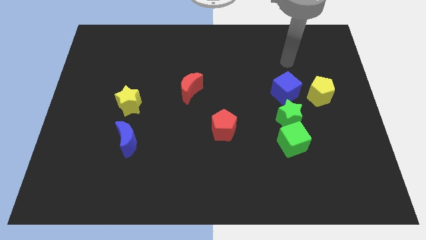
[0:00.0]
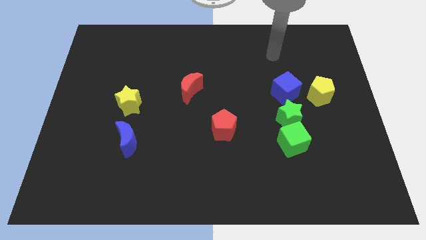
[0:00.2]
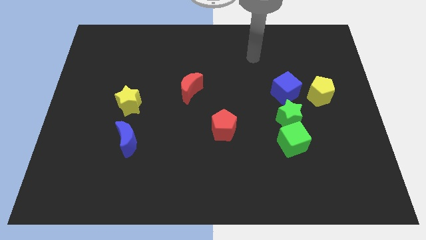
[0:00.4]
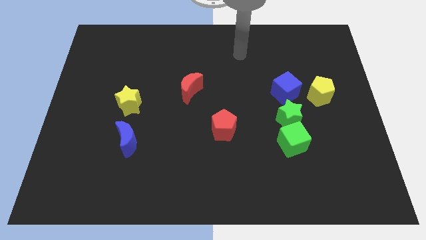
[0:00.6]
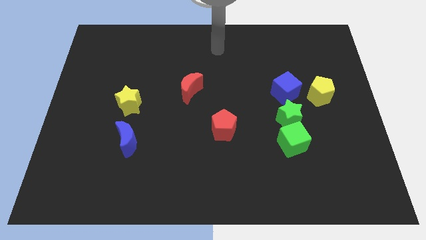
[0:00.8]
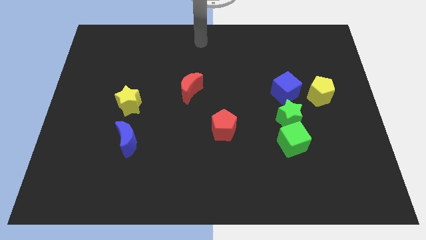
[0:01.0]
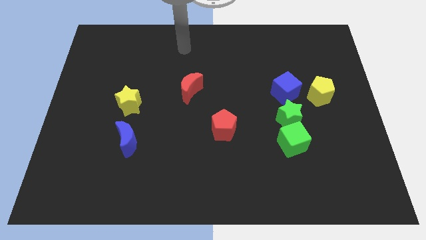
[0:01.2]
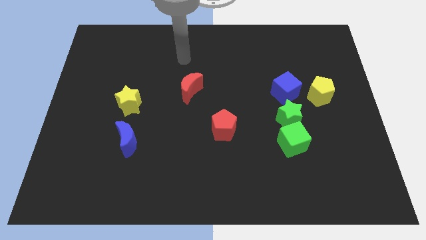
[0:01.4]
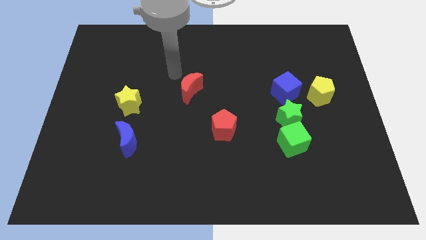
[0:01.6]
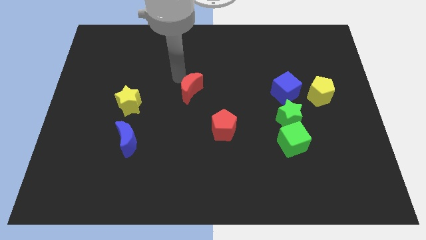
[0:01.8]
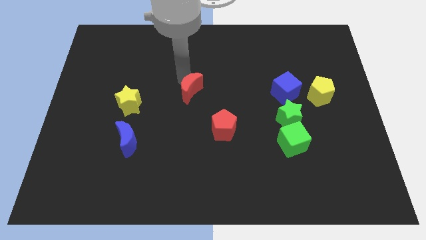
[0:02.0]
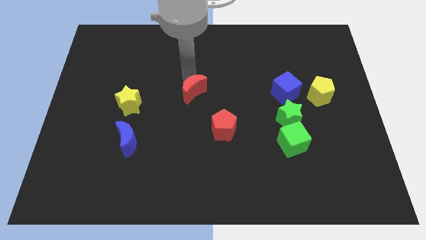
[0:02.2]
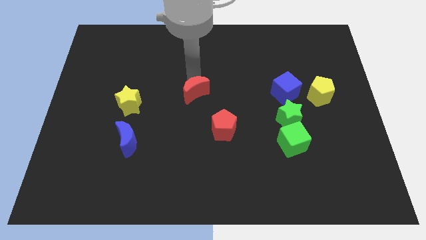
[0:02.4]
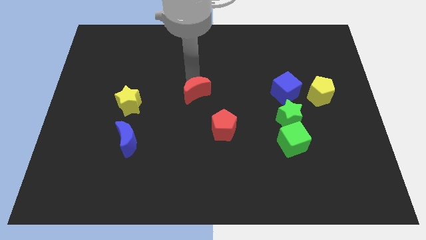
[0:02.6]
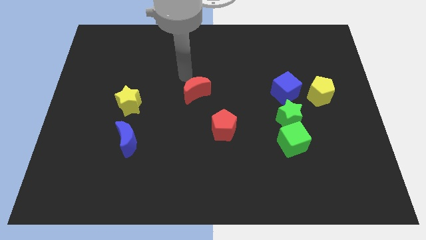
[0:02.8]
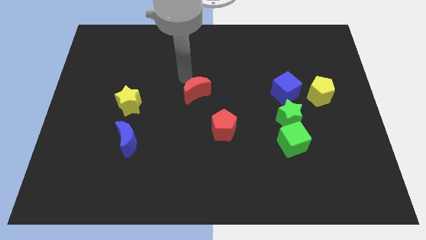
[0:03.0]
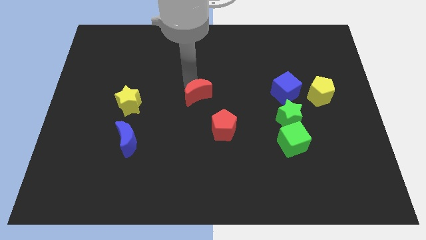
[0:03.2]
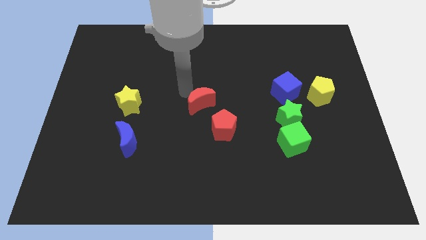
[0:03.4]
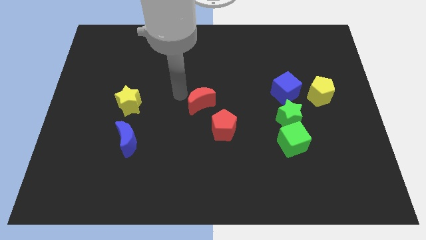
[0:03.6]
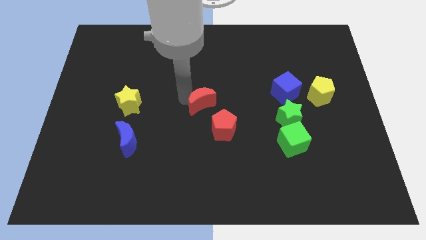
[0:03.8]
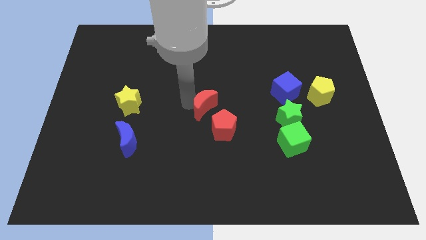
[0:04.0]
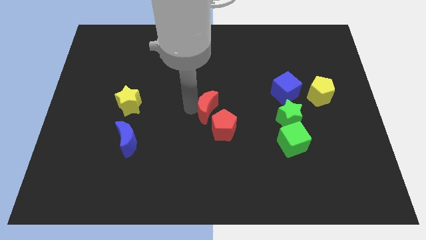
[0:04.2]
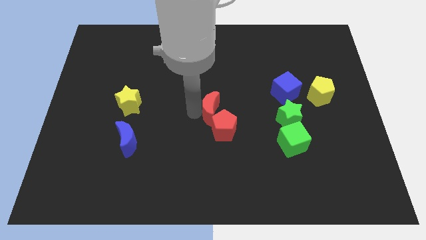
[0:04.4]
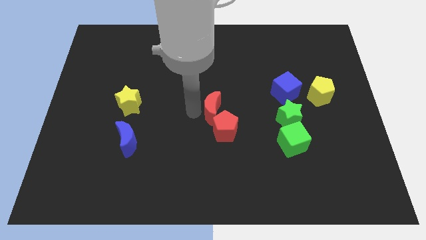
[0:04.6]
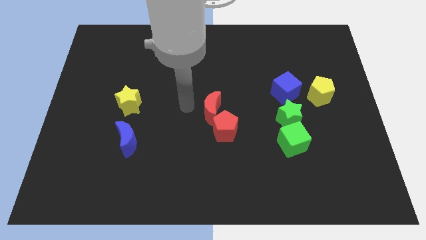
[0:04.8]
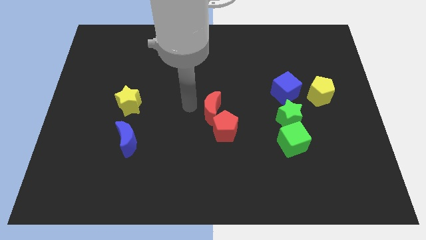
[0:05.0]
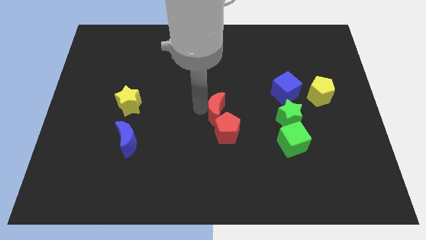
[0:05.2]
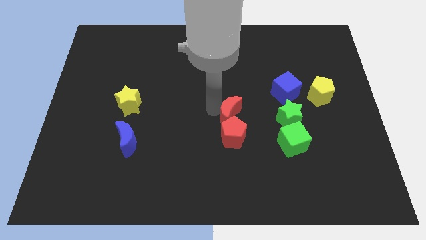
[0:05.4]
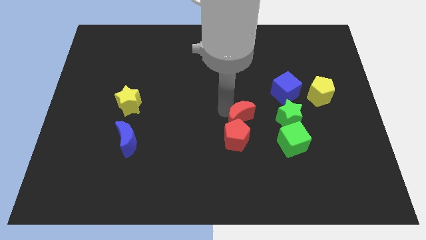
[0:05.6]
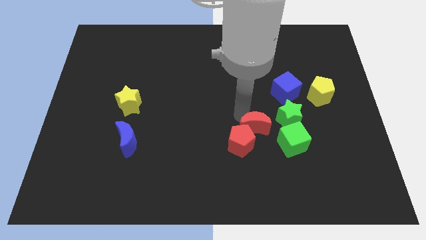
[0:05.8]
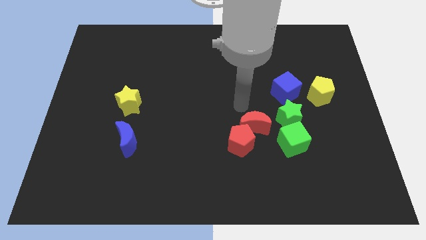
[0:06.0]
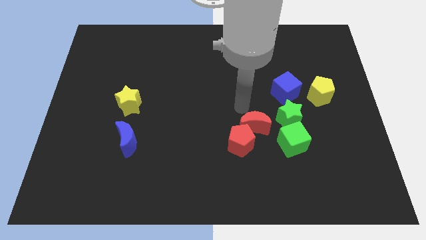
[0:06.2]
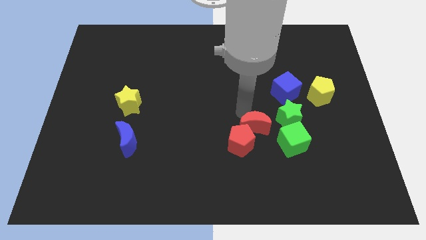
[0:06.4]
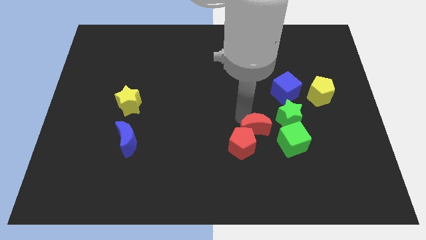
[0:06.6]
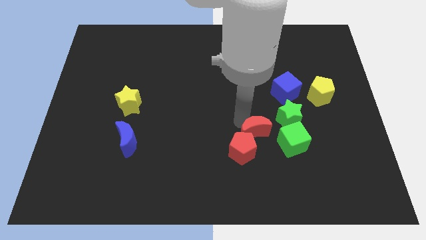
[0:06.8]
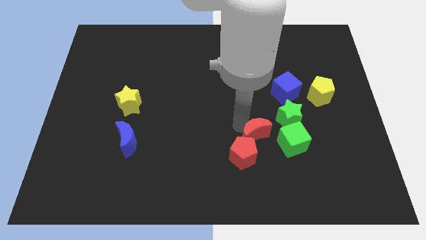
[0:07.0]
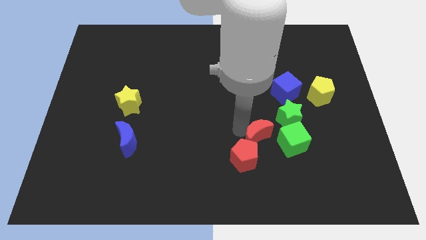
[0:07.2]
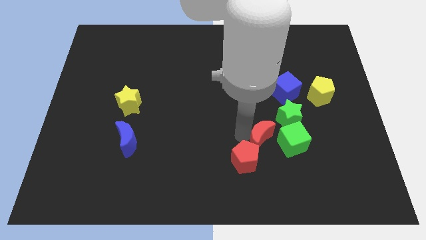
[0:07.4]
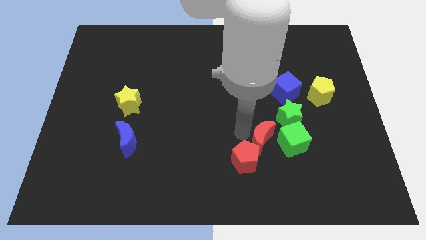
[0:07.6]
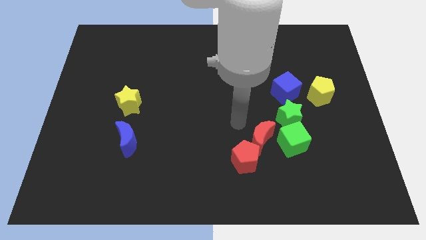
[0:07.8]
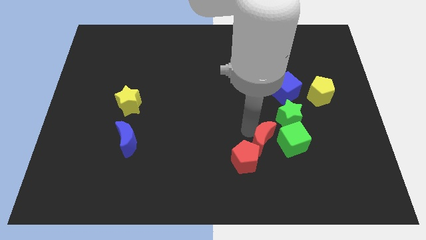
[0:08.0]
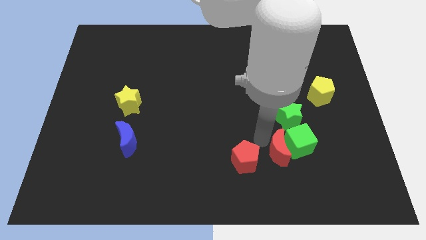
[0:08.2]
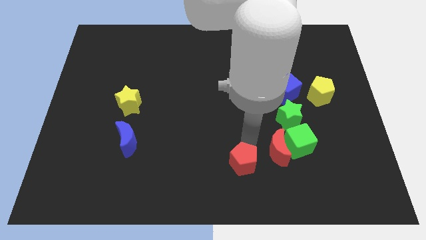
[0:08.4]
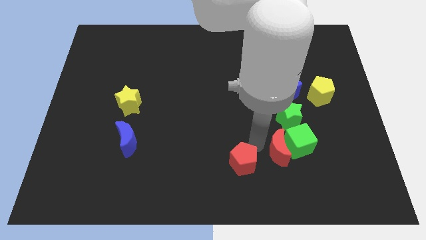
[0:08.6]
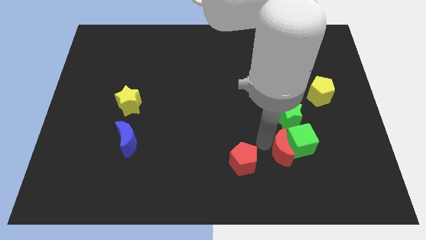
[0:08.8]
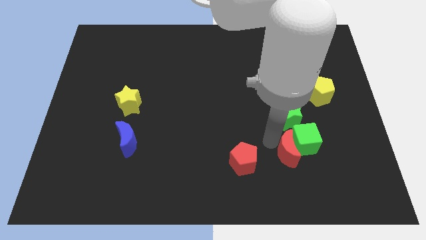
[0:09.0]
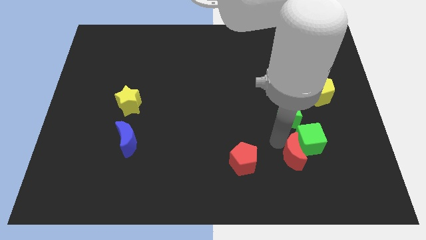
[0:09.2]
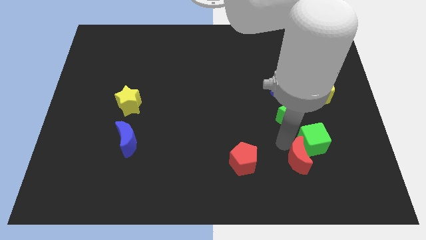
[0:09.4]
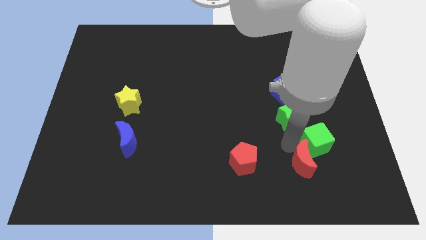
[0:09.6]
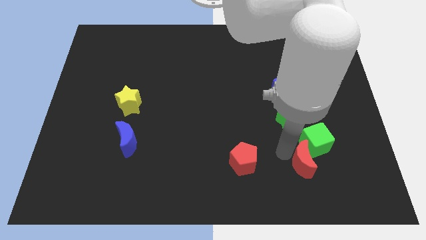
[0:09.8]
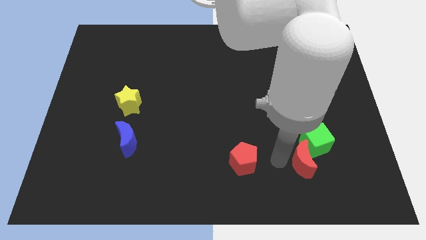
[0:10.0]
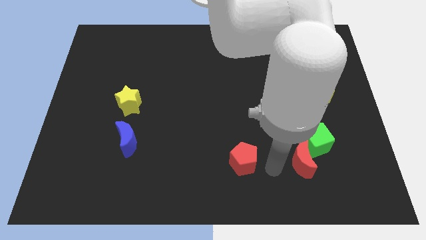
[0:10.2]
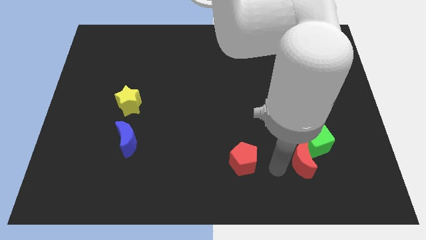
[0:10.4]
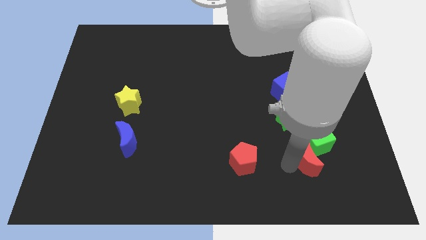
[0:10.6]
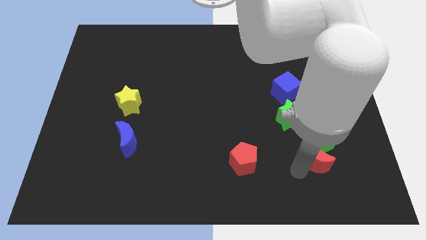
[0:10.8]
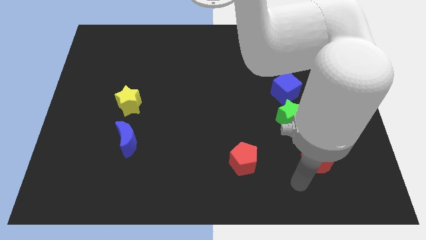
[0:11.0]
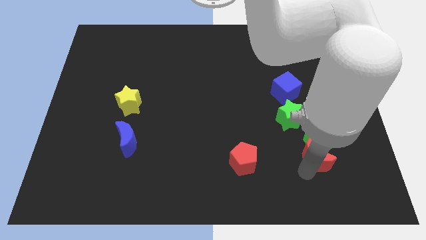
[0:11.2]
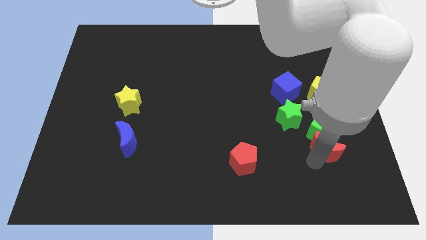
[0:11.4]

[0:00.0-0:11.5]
push the red moon below the yellow pentagon

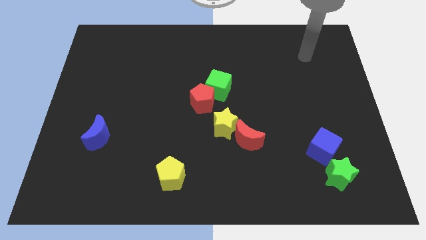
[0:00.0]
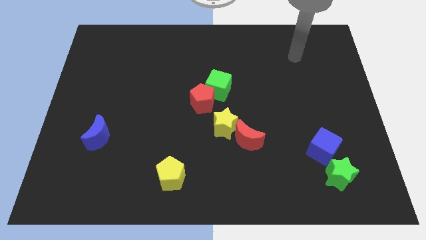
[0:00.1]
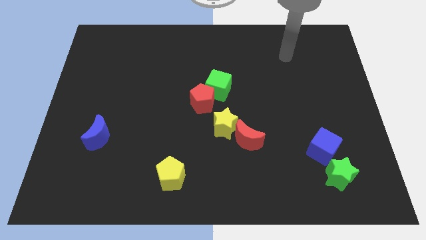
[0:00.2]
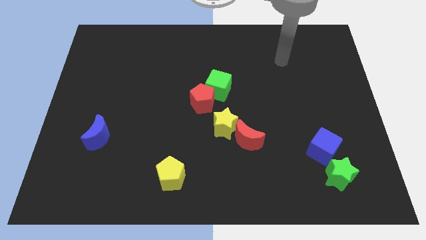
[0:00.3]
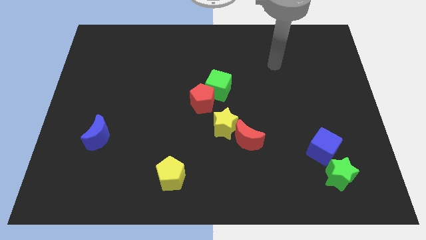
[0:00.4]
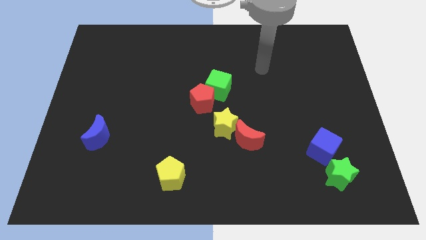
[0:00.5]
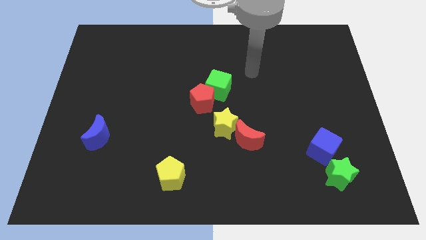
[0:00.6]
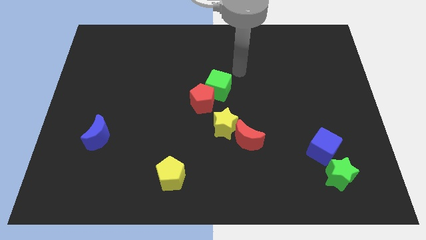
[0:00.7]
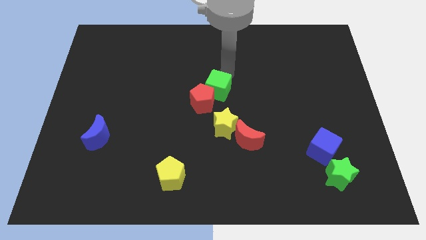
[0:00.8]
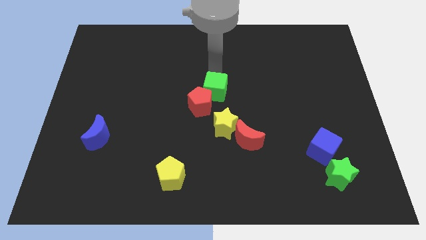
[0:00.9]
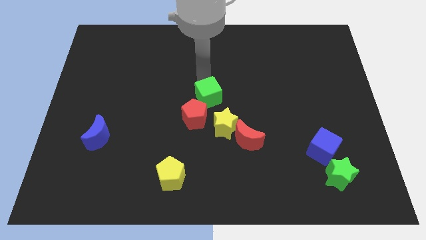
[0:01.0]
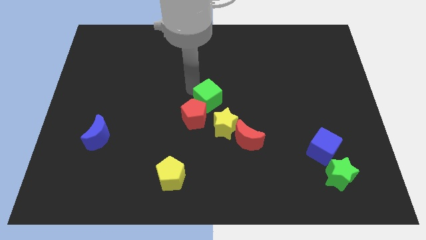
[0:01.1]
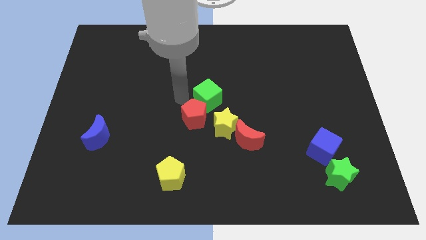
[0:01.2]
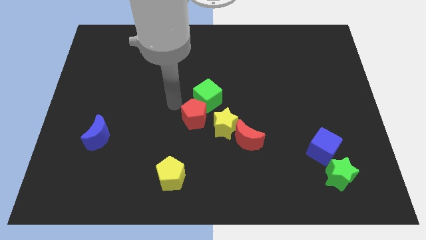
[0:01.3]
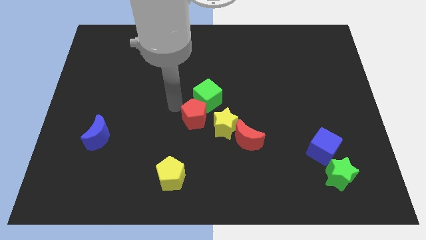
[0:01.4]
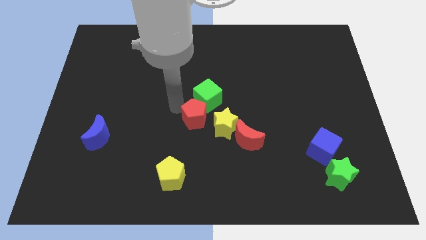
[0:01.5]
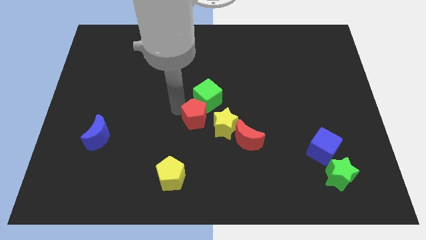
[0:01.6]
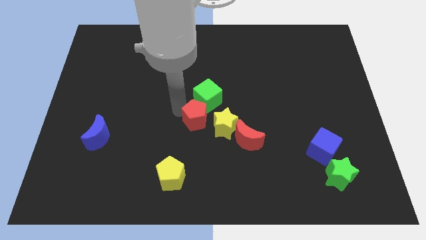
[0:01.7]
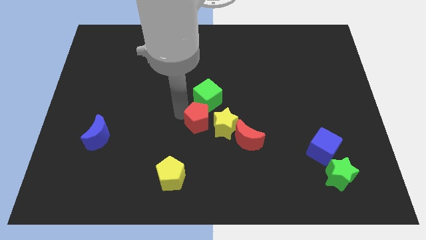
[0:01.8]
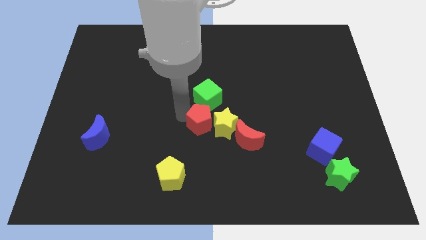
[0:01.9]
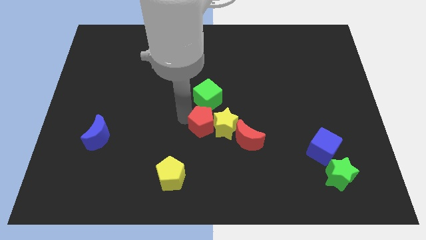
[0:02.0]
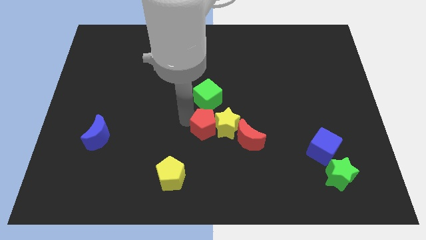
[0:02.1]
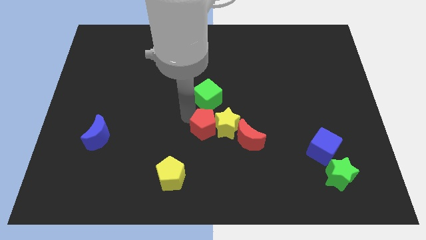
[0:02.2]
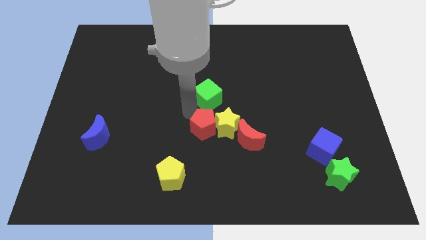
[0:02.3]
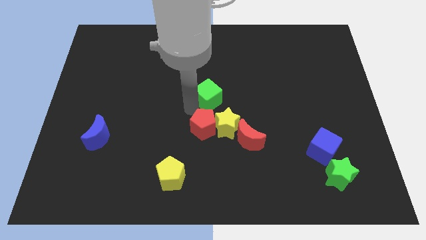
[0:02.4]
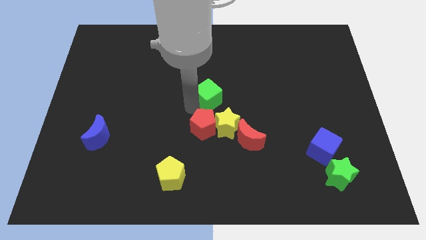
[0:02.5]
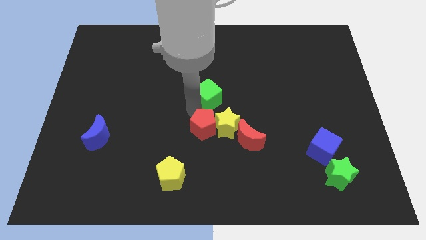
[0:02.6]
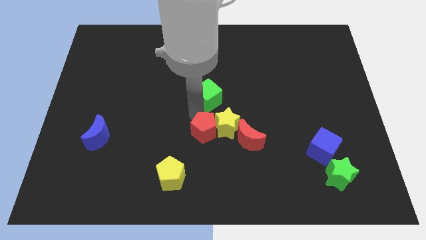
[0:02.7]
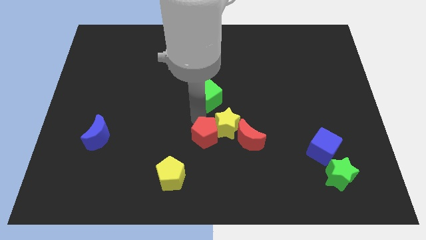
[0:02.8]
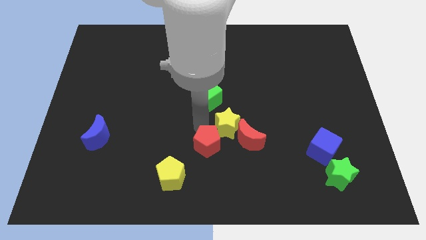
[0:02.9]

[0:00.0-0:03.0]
push the red pentagon to the bottom side of the yellow star
